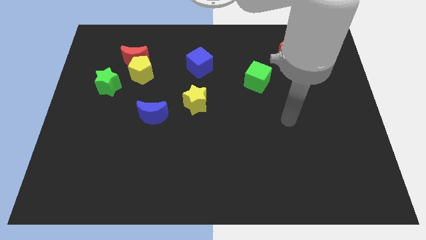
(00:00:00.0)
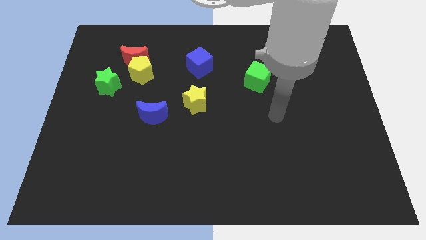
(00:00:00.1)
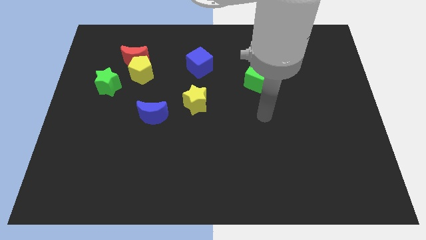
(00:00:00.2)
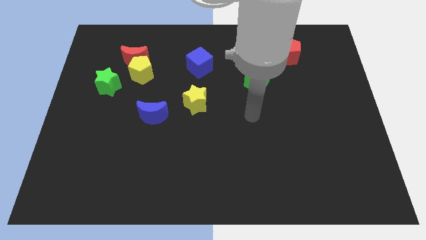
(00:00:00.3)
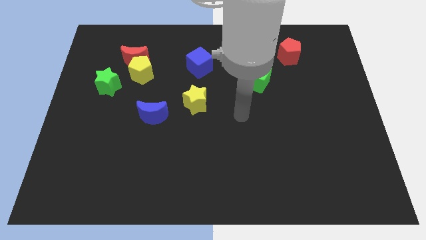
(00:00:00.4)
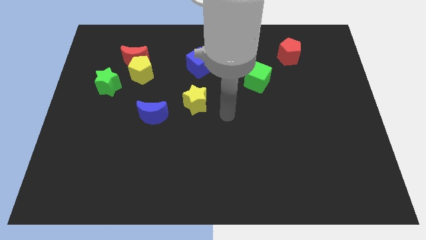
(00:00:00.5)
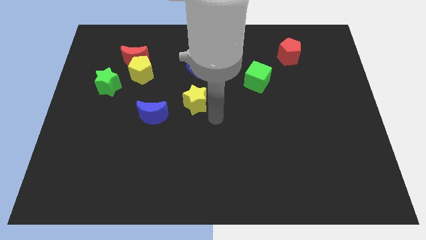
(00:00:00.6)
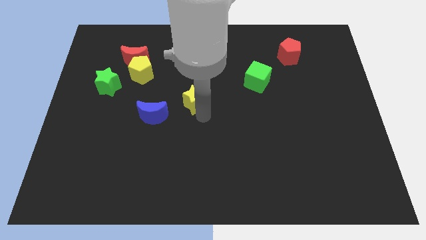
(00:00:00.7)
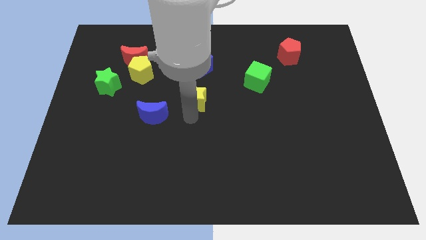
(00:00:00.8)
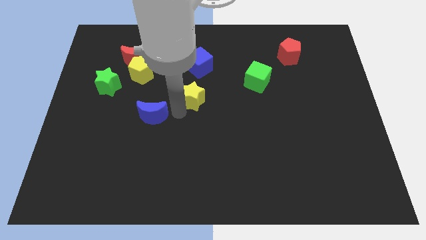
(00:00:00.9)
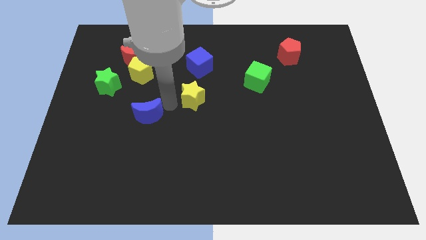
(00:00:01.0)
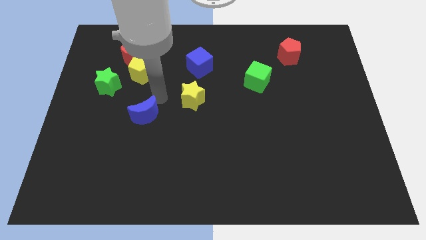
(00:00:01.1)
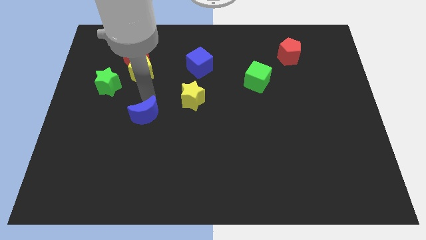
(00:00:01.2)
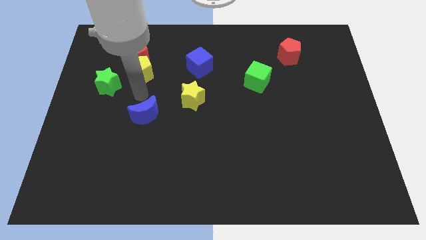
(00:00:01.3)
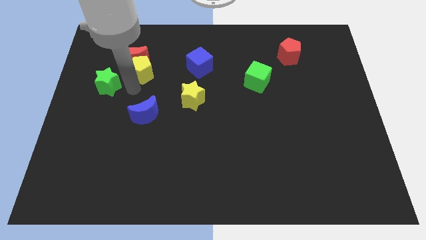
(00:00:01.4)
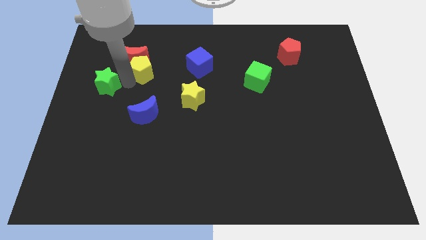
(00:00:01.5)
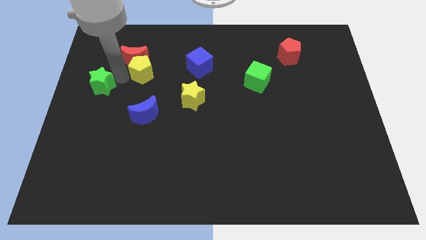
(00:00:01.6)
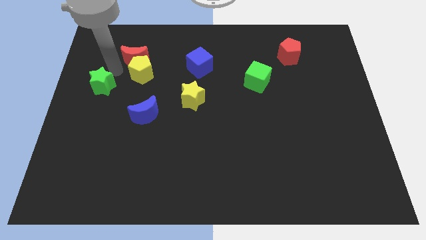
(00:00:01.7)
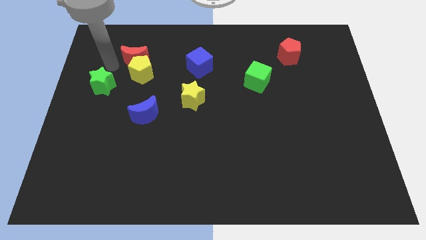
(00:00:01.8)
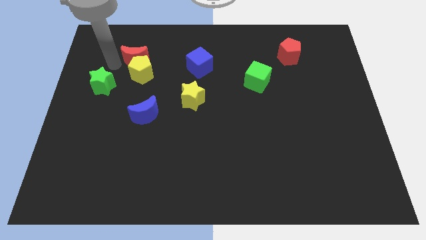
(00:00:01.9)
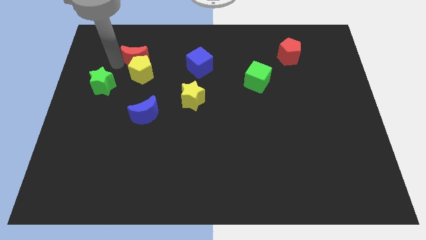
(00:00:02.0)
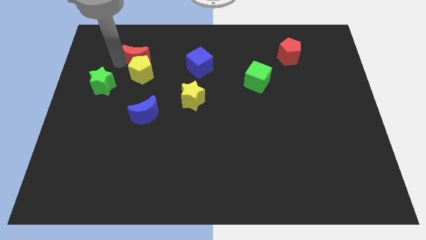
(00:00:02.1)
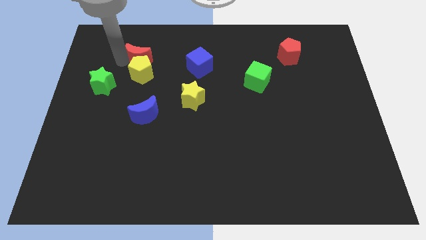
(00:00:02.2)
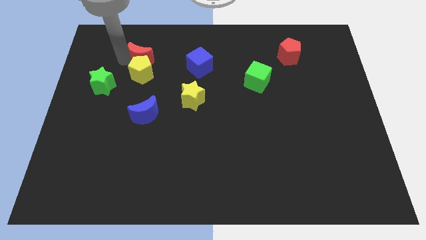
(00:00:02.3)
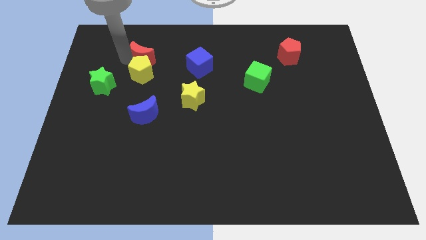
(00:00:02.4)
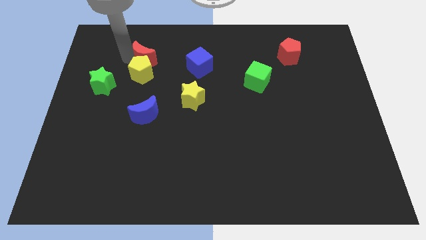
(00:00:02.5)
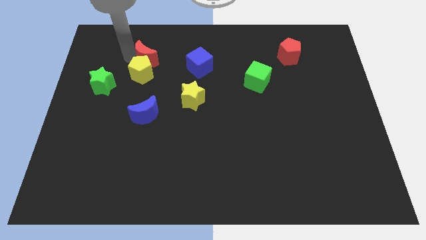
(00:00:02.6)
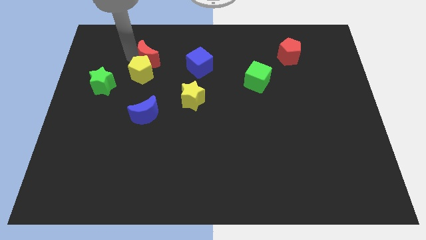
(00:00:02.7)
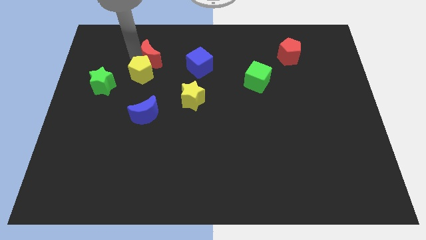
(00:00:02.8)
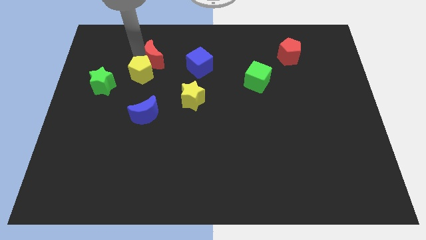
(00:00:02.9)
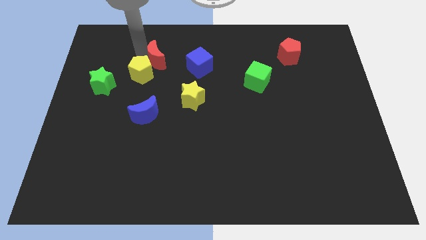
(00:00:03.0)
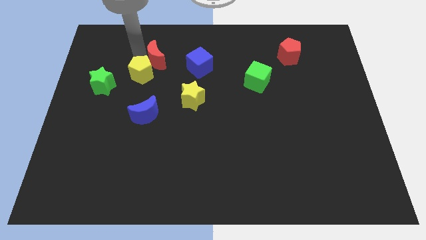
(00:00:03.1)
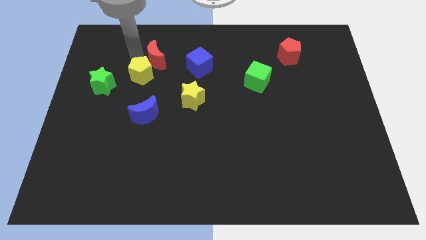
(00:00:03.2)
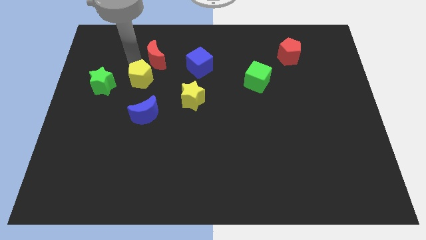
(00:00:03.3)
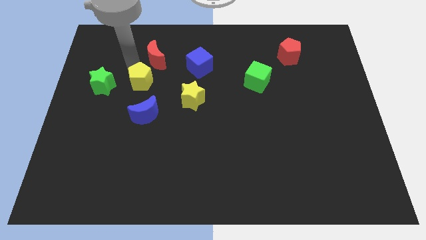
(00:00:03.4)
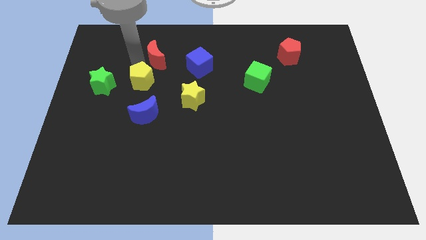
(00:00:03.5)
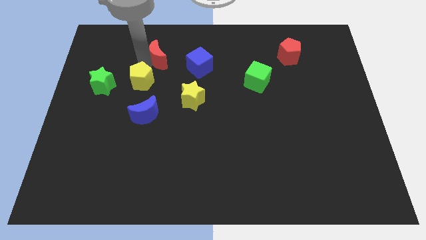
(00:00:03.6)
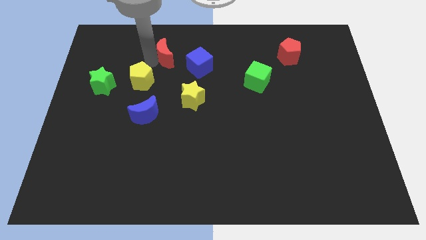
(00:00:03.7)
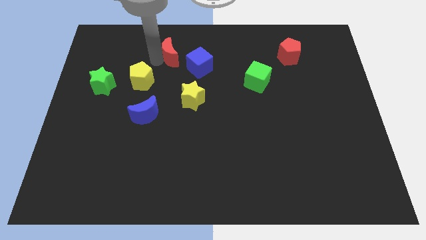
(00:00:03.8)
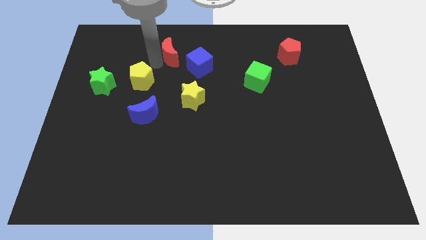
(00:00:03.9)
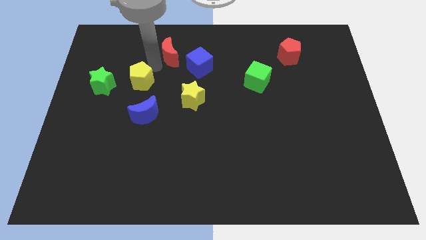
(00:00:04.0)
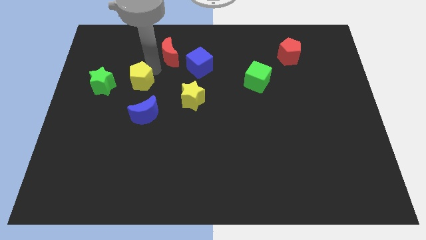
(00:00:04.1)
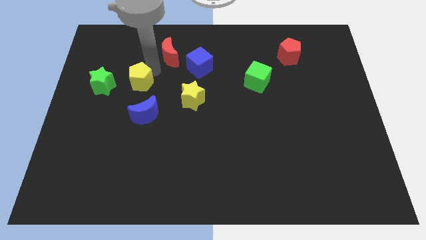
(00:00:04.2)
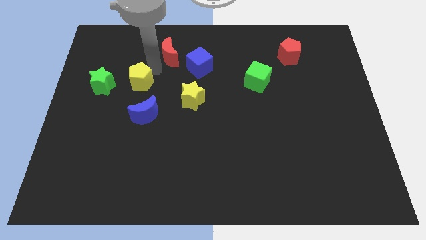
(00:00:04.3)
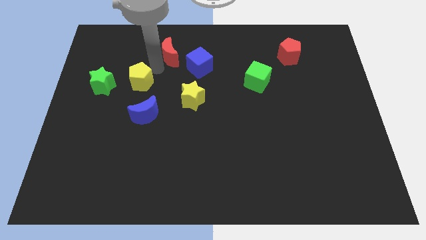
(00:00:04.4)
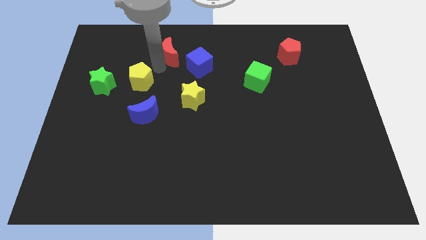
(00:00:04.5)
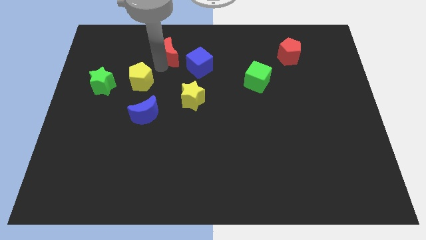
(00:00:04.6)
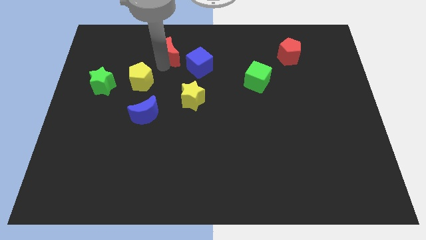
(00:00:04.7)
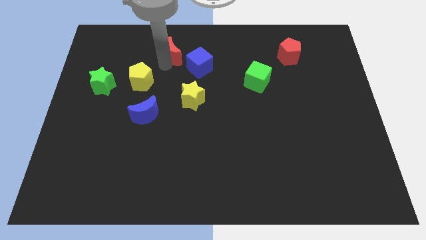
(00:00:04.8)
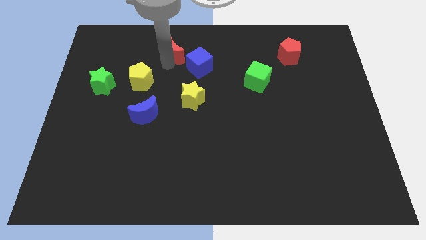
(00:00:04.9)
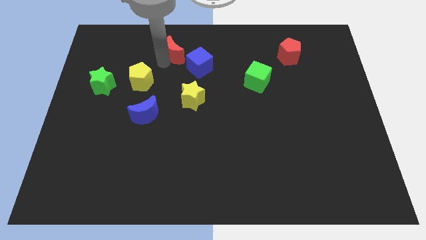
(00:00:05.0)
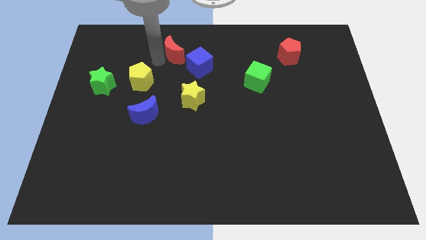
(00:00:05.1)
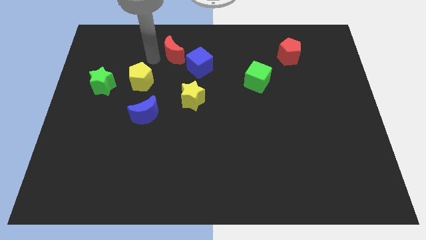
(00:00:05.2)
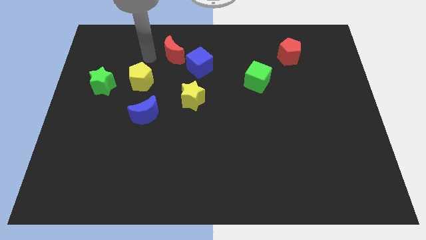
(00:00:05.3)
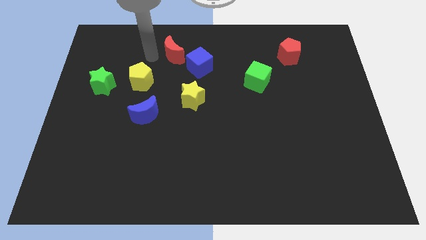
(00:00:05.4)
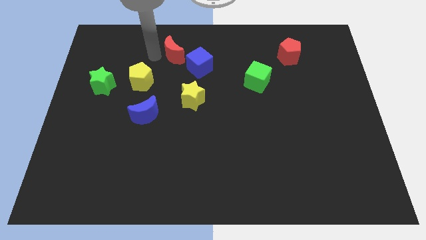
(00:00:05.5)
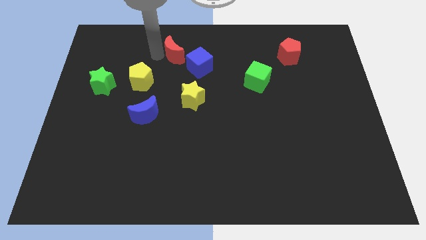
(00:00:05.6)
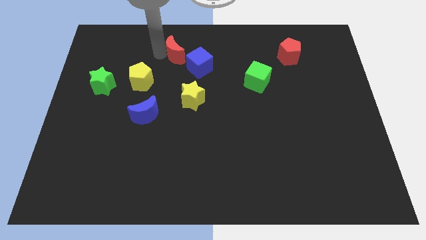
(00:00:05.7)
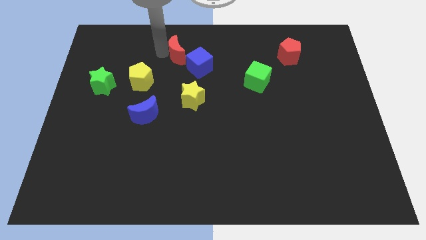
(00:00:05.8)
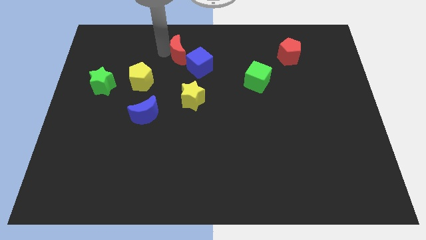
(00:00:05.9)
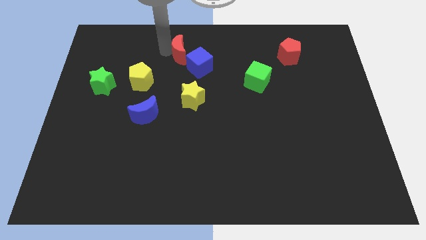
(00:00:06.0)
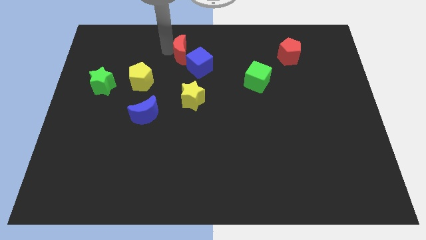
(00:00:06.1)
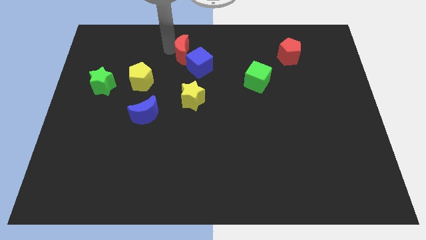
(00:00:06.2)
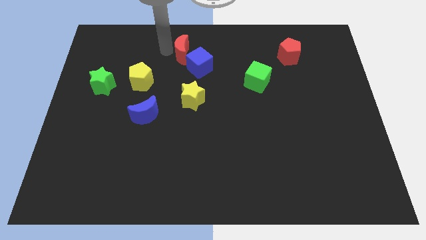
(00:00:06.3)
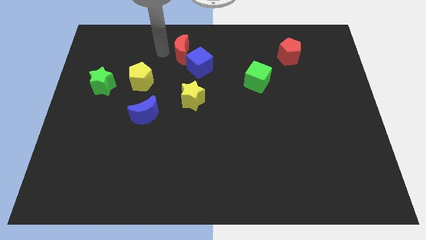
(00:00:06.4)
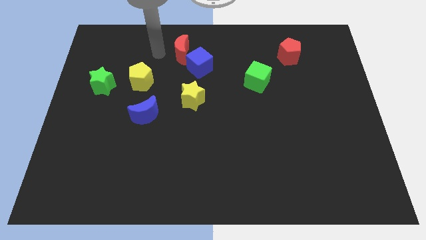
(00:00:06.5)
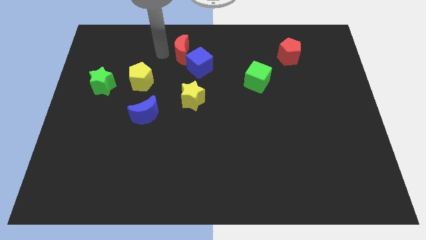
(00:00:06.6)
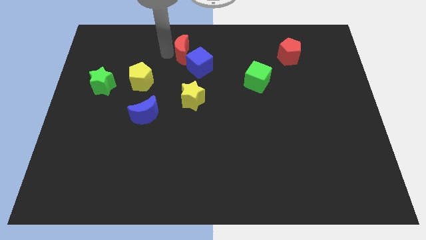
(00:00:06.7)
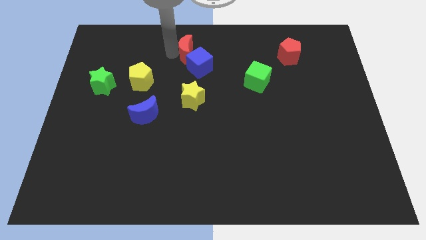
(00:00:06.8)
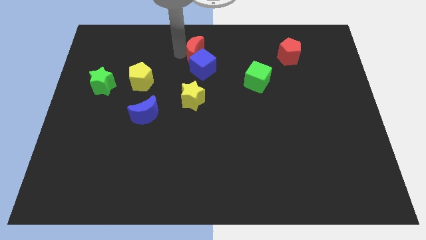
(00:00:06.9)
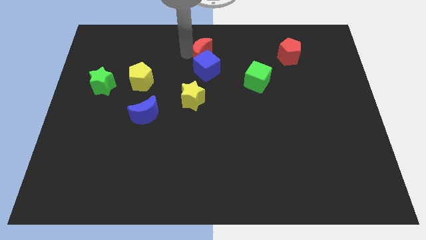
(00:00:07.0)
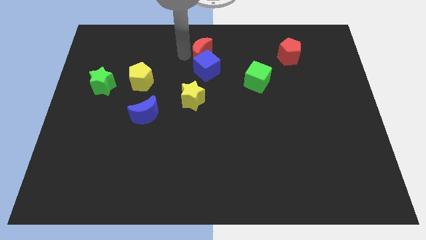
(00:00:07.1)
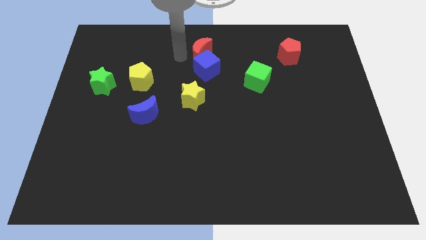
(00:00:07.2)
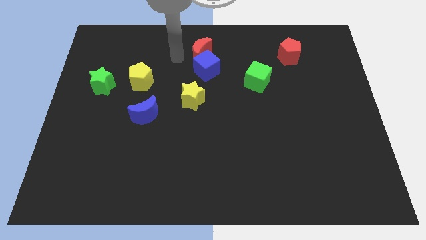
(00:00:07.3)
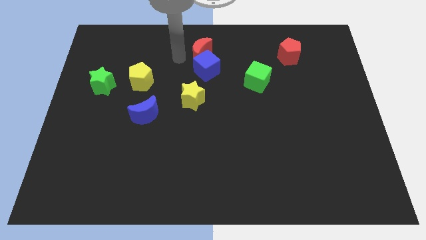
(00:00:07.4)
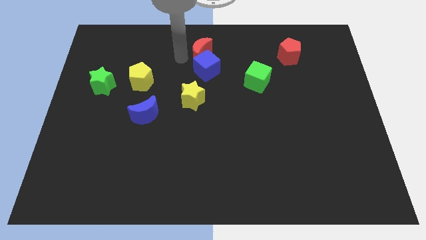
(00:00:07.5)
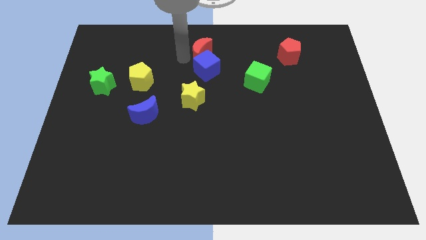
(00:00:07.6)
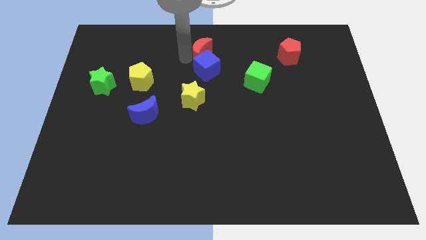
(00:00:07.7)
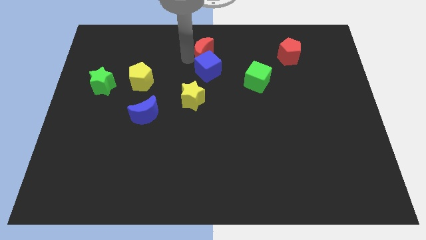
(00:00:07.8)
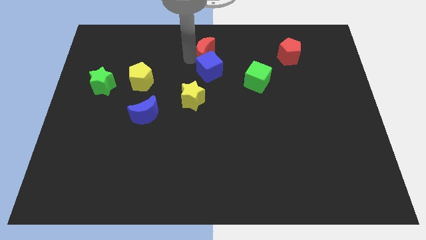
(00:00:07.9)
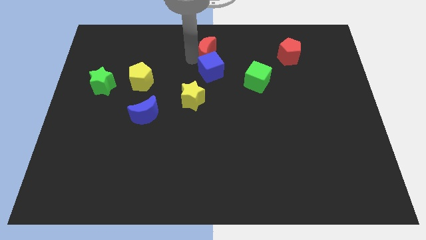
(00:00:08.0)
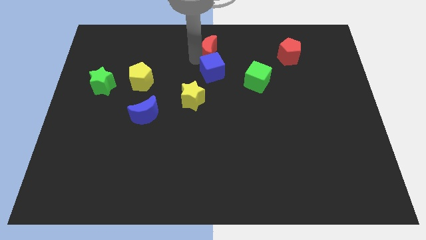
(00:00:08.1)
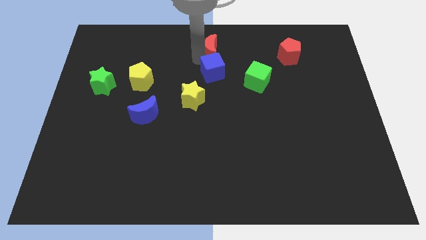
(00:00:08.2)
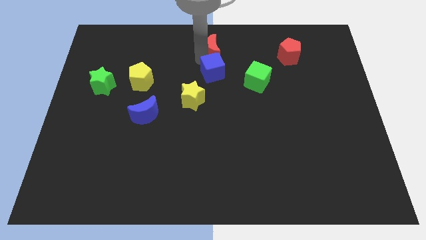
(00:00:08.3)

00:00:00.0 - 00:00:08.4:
push the red moon to the right
